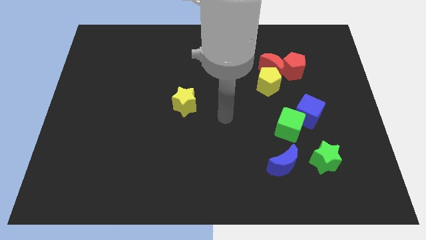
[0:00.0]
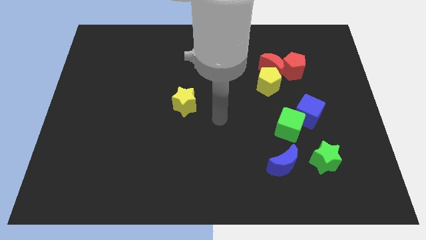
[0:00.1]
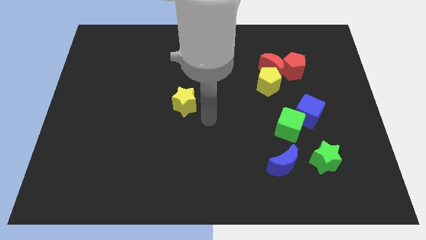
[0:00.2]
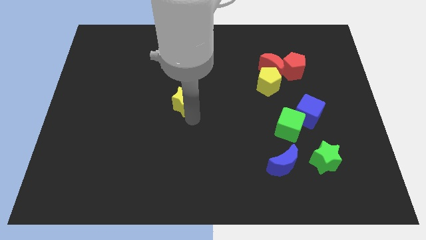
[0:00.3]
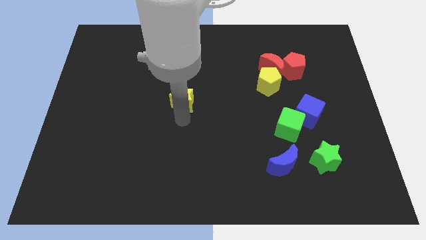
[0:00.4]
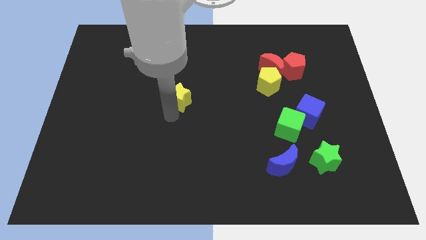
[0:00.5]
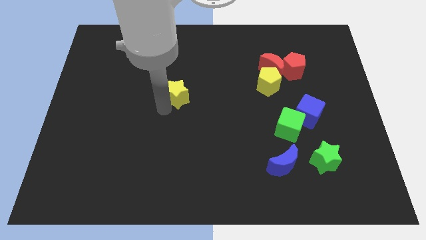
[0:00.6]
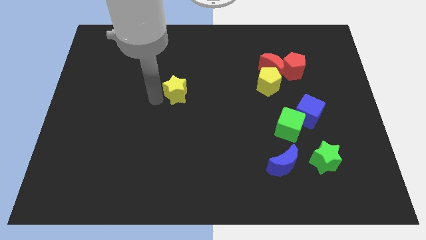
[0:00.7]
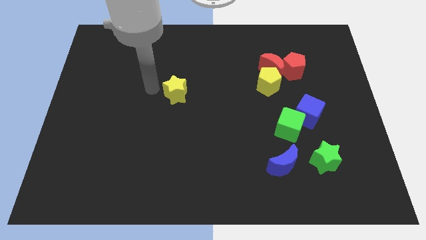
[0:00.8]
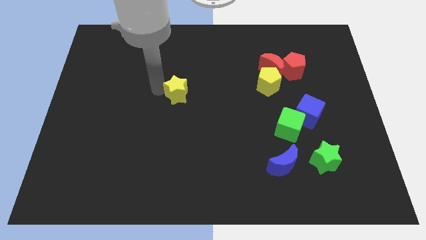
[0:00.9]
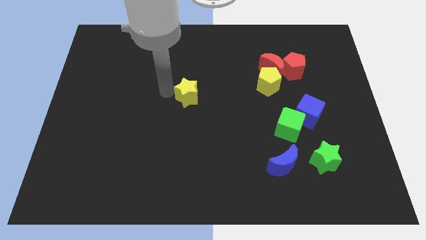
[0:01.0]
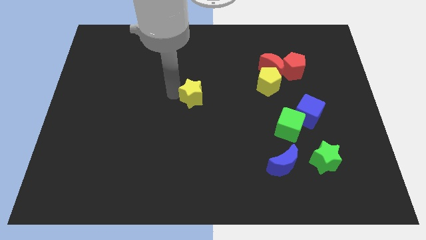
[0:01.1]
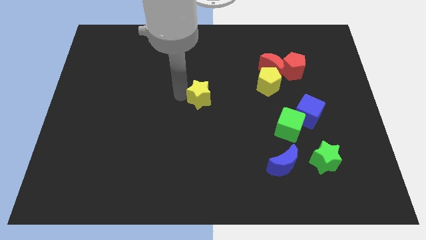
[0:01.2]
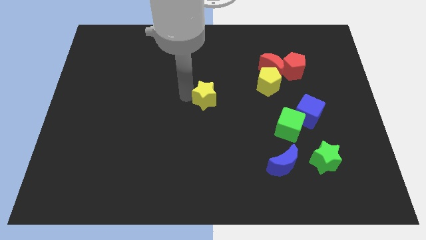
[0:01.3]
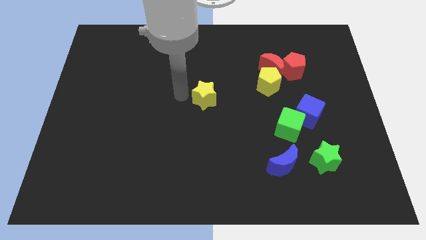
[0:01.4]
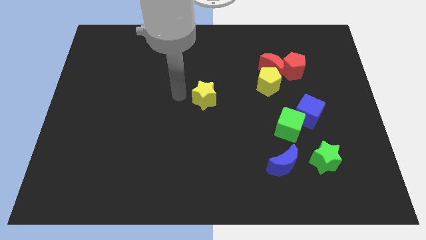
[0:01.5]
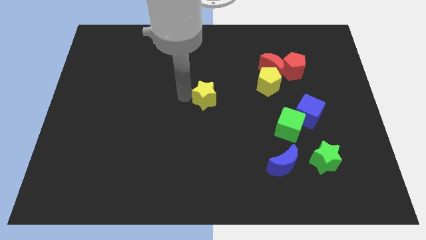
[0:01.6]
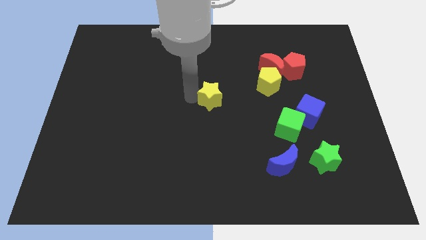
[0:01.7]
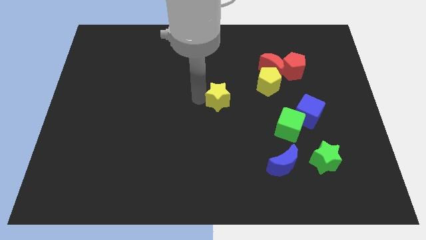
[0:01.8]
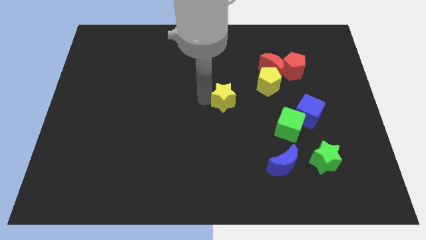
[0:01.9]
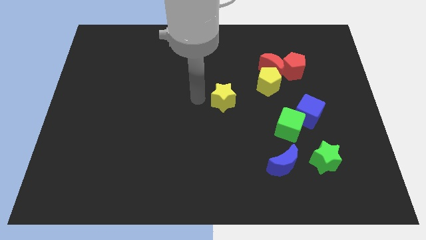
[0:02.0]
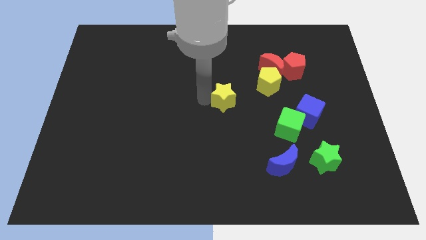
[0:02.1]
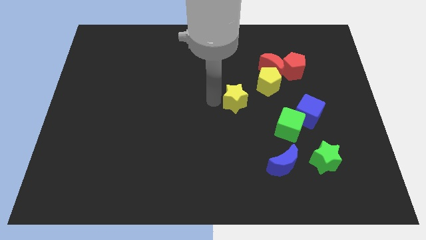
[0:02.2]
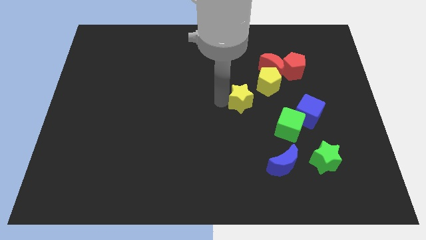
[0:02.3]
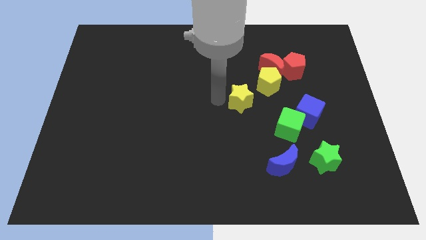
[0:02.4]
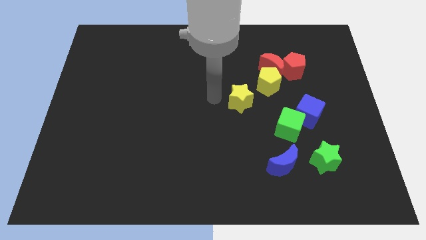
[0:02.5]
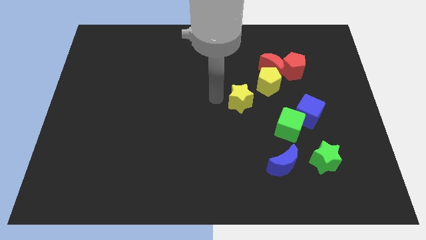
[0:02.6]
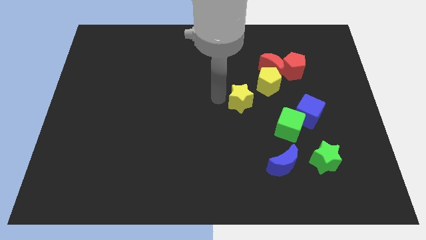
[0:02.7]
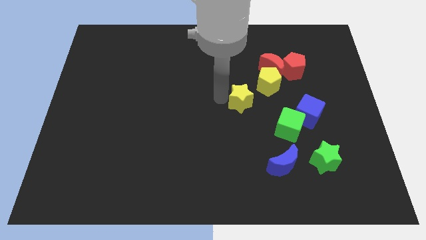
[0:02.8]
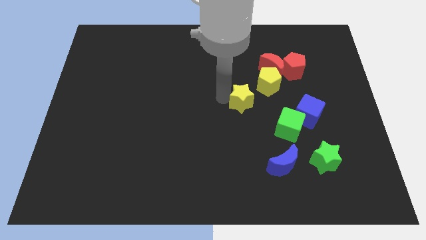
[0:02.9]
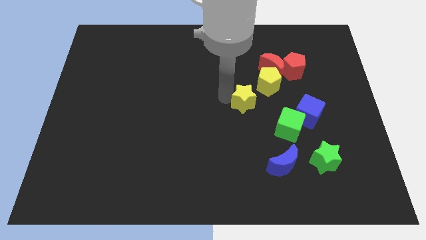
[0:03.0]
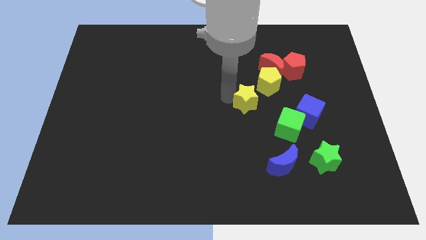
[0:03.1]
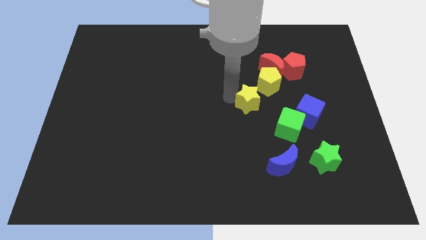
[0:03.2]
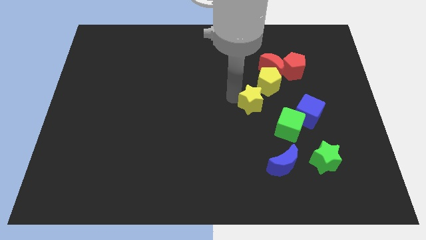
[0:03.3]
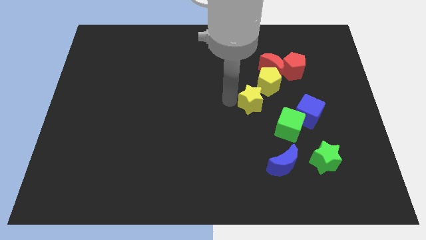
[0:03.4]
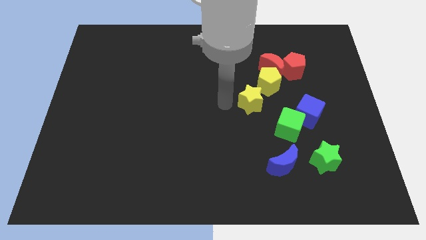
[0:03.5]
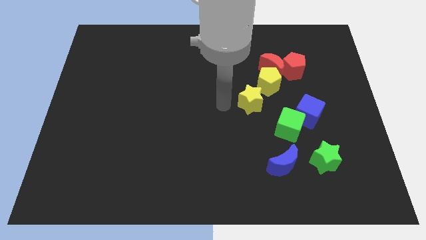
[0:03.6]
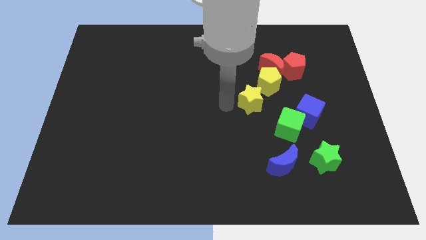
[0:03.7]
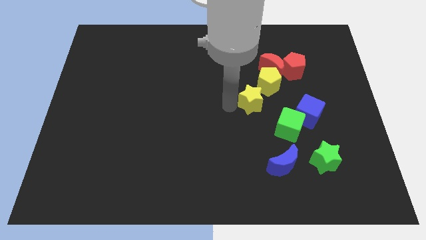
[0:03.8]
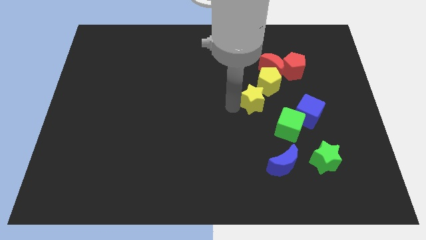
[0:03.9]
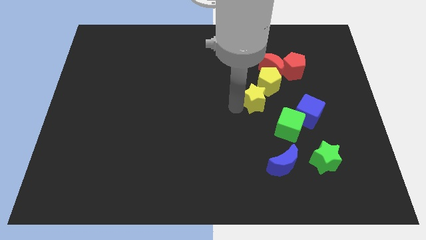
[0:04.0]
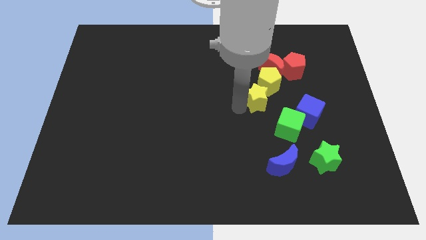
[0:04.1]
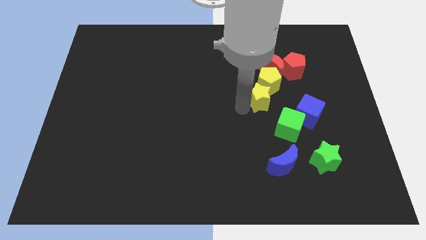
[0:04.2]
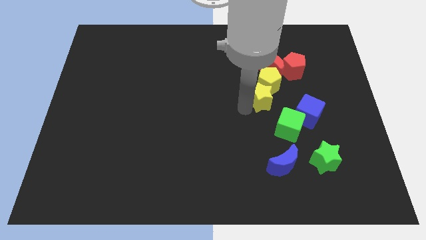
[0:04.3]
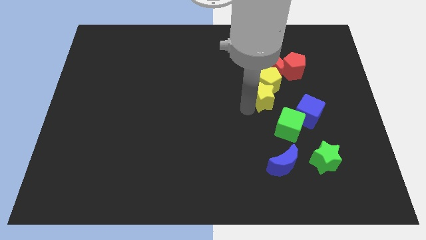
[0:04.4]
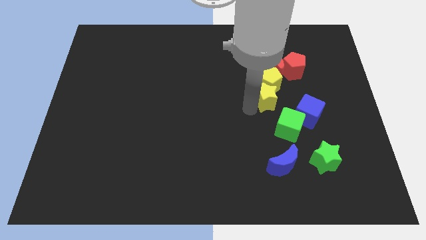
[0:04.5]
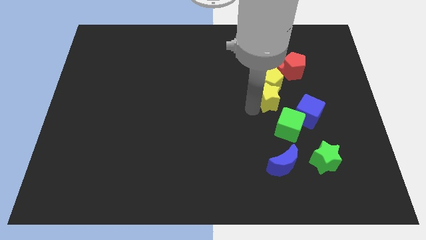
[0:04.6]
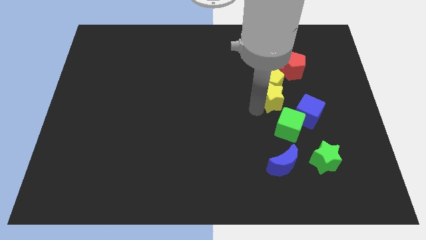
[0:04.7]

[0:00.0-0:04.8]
slide the yellow star right

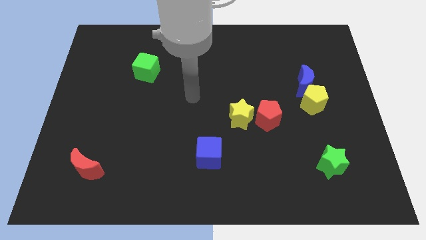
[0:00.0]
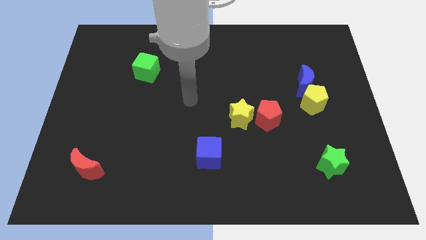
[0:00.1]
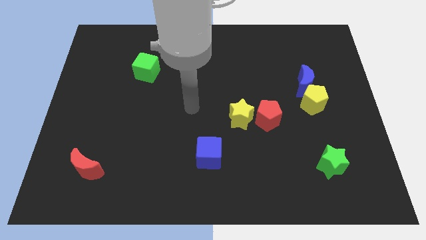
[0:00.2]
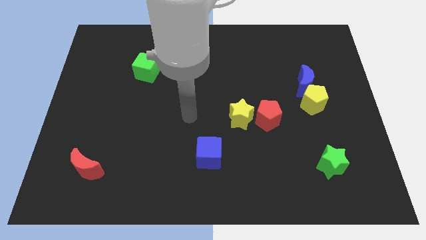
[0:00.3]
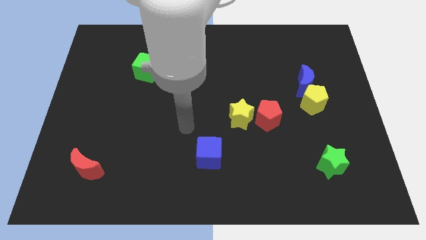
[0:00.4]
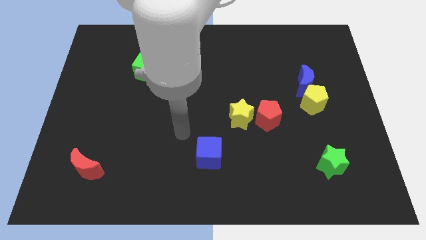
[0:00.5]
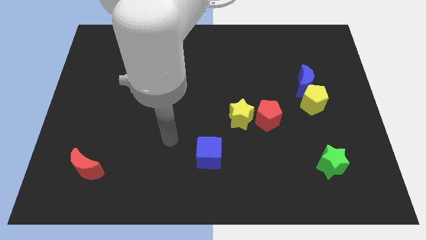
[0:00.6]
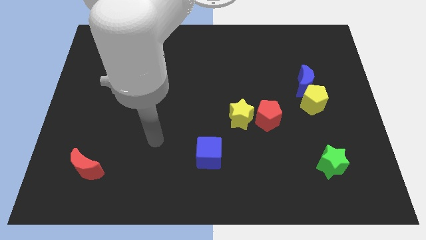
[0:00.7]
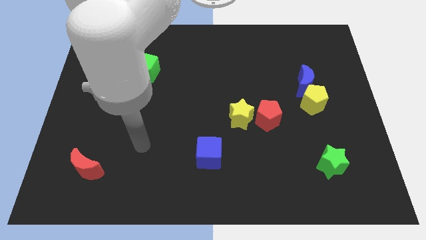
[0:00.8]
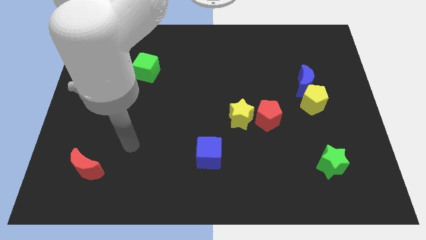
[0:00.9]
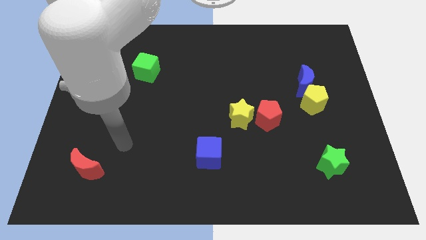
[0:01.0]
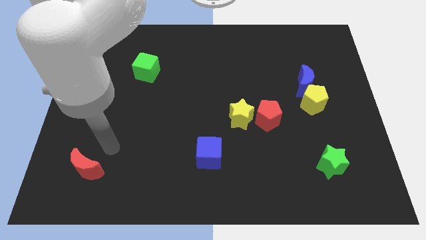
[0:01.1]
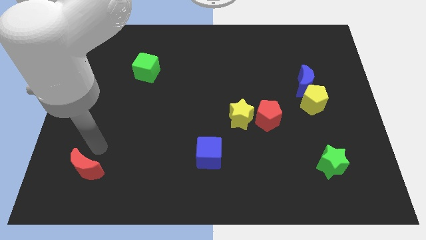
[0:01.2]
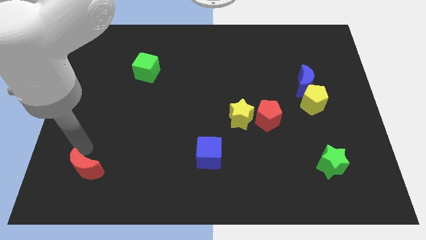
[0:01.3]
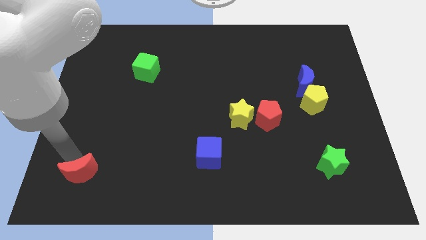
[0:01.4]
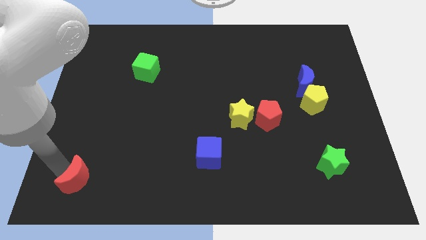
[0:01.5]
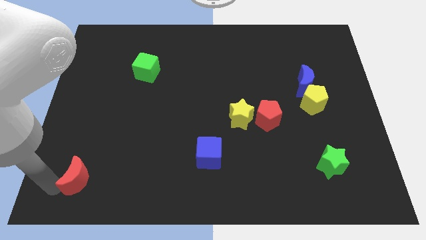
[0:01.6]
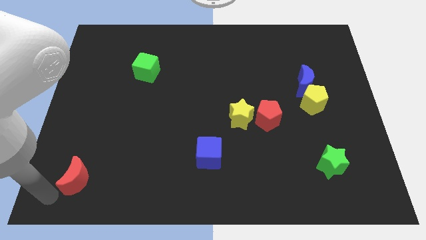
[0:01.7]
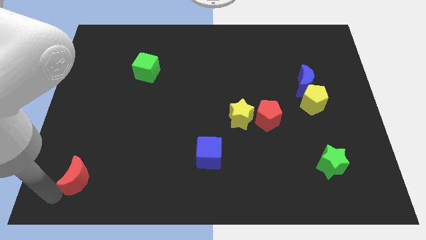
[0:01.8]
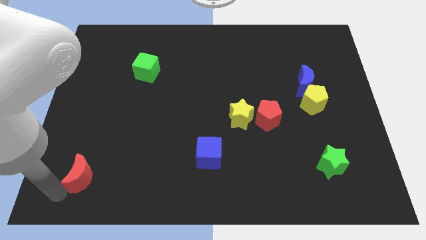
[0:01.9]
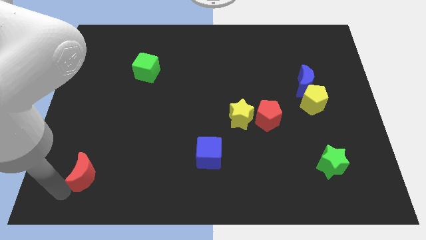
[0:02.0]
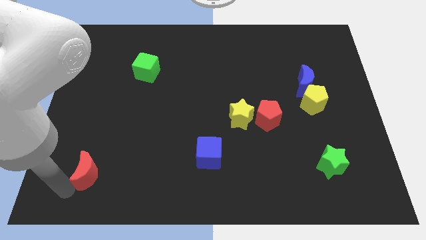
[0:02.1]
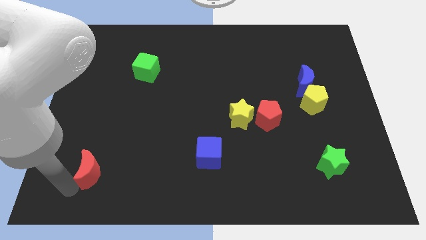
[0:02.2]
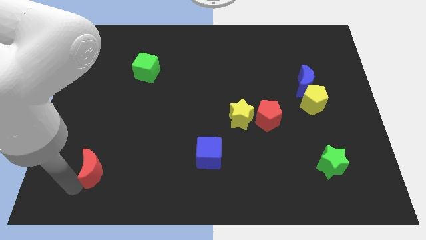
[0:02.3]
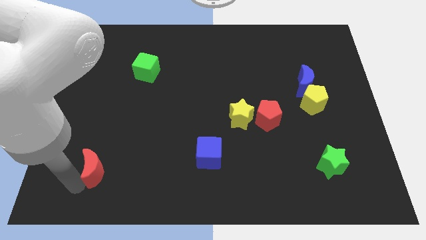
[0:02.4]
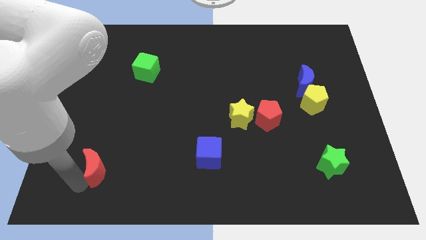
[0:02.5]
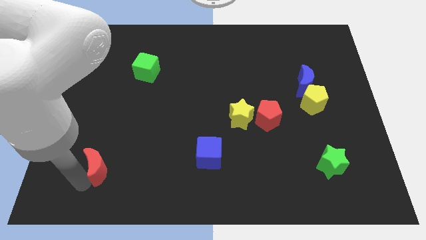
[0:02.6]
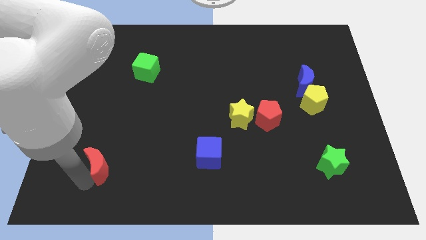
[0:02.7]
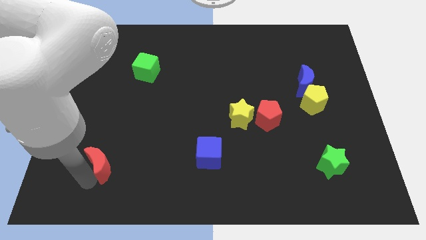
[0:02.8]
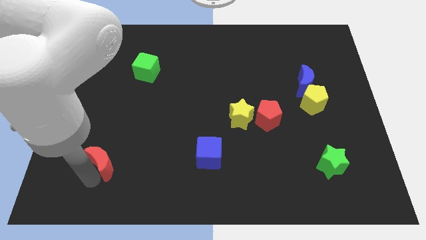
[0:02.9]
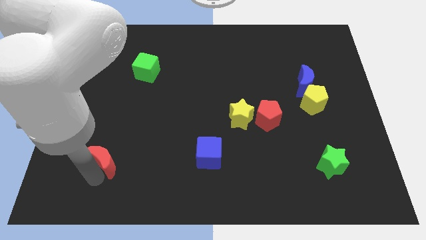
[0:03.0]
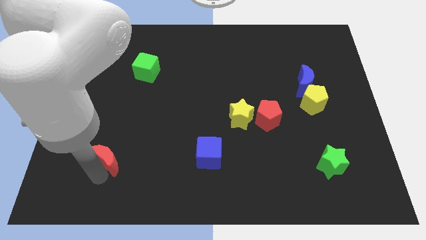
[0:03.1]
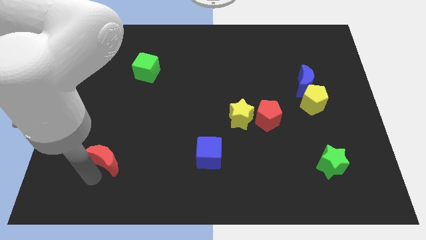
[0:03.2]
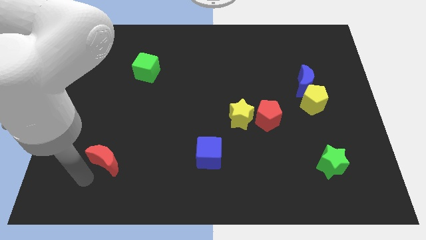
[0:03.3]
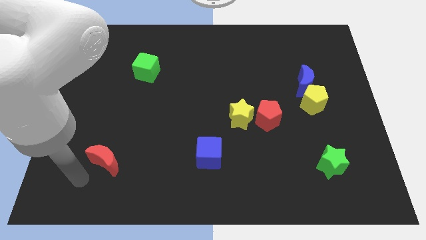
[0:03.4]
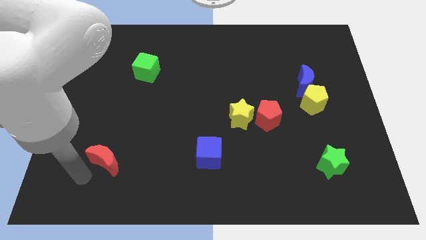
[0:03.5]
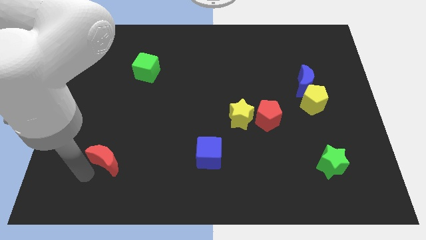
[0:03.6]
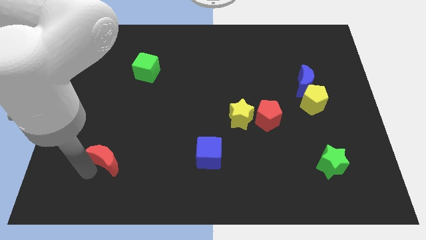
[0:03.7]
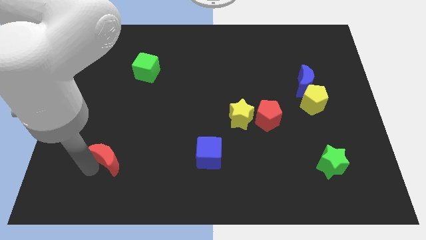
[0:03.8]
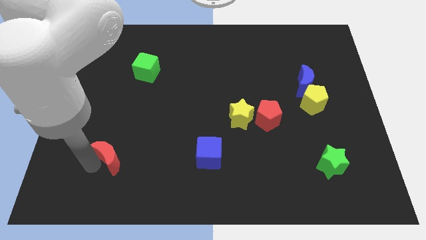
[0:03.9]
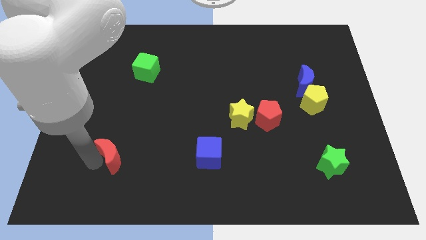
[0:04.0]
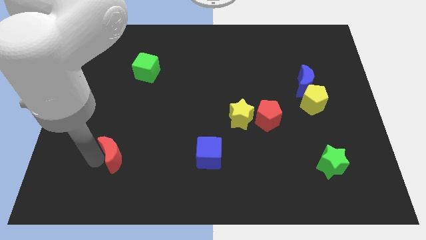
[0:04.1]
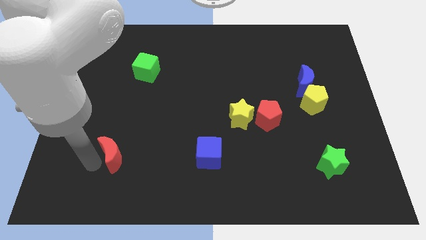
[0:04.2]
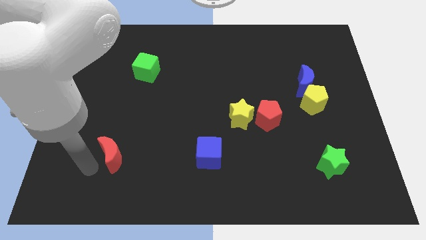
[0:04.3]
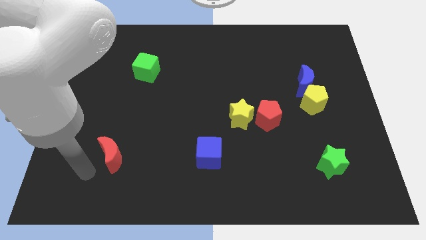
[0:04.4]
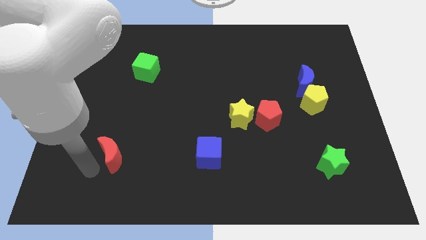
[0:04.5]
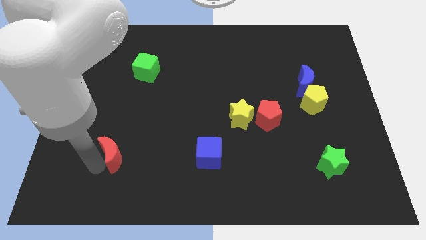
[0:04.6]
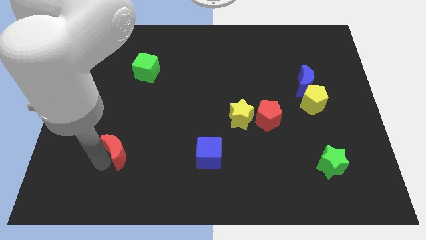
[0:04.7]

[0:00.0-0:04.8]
move the red moon somewhat upwards and then to the right
